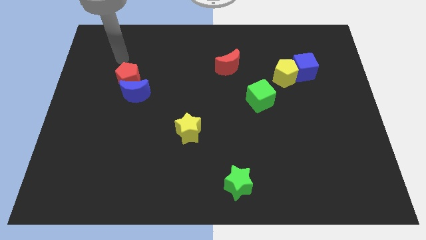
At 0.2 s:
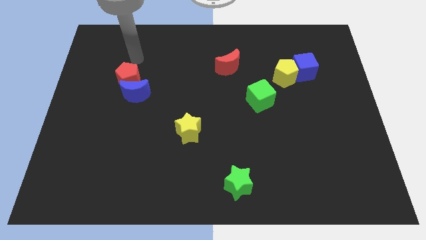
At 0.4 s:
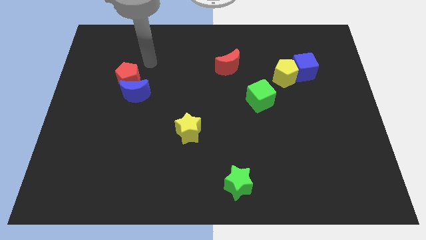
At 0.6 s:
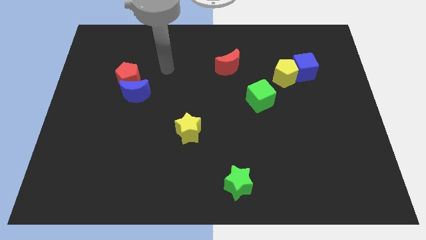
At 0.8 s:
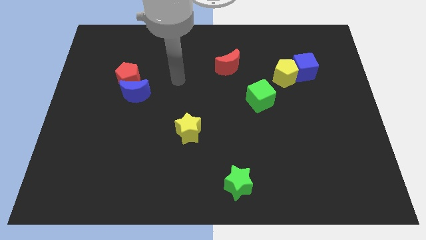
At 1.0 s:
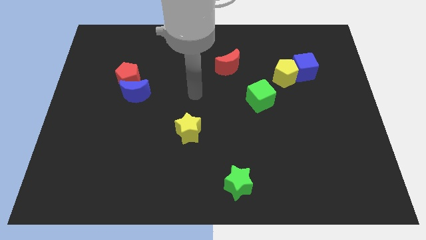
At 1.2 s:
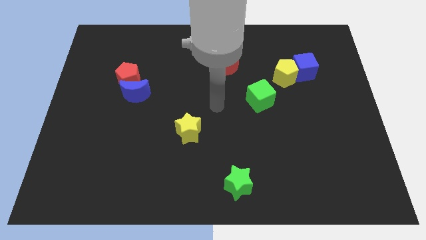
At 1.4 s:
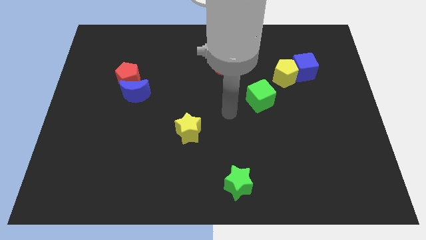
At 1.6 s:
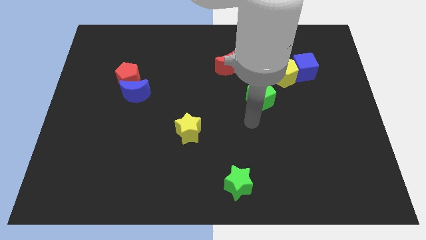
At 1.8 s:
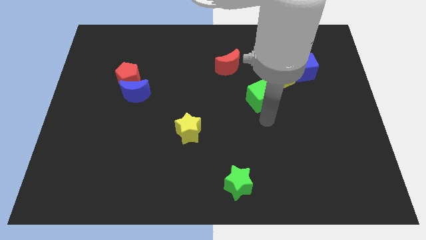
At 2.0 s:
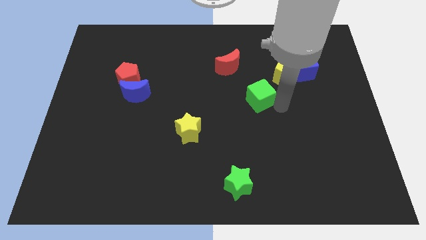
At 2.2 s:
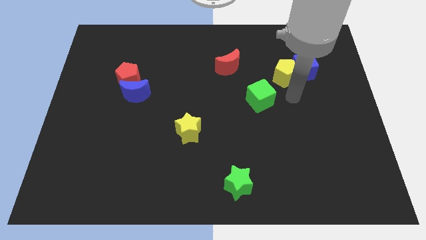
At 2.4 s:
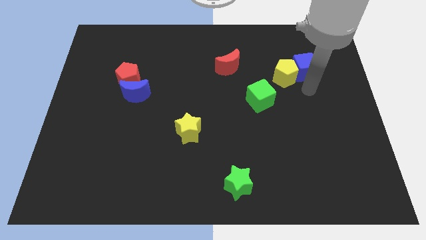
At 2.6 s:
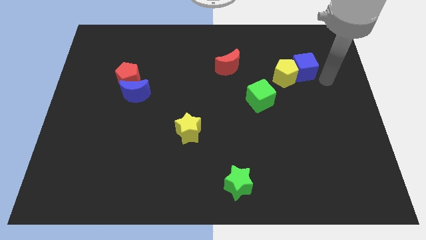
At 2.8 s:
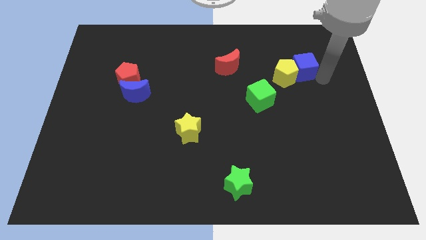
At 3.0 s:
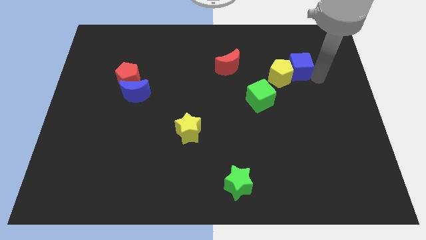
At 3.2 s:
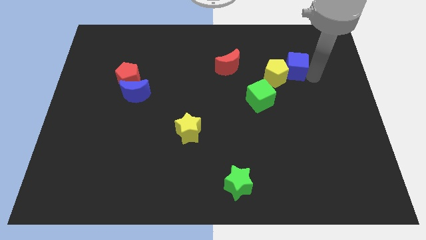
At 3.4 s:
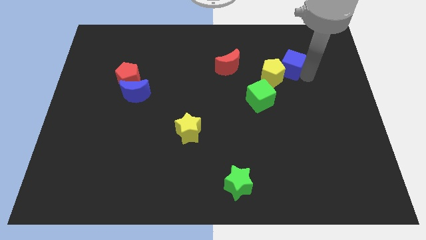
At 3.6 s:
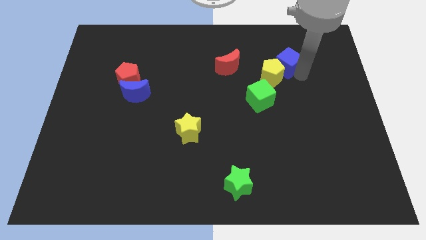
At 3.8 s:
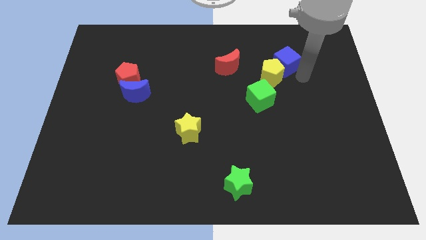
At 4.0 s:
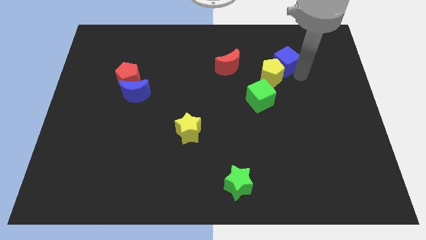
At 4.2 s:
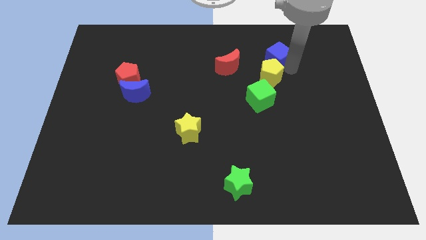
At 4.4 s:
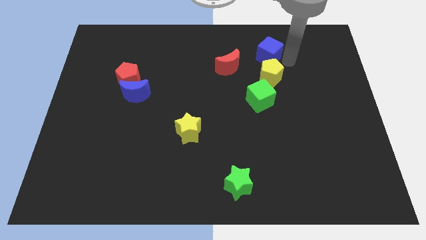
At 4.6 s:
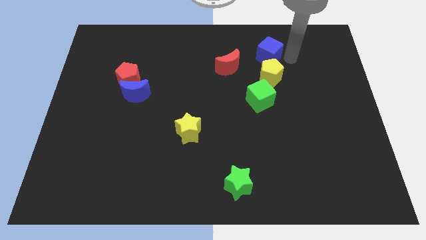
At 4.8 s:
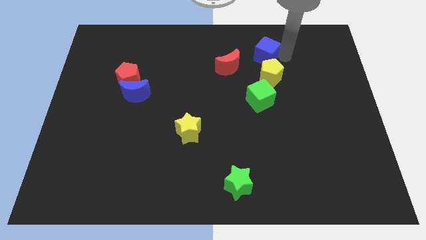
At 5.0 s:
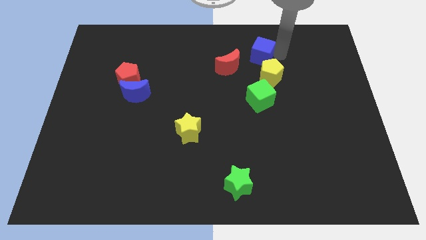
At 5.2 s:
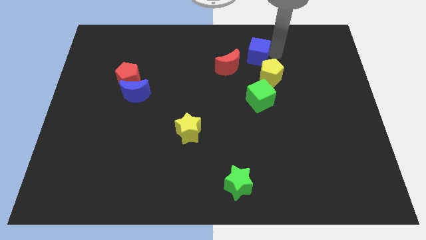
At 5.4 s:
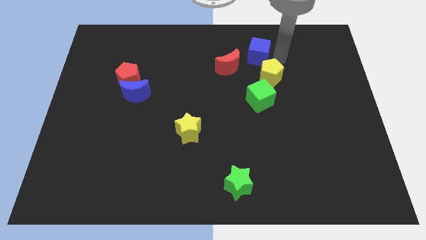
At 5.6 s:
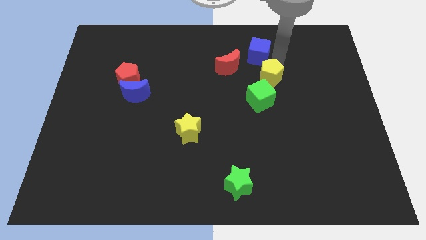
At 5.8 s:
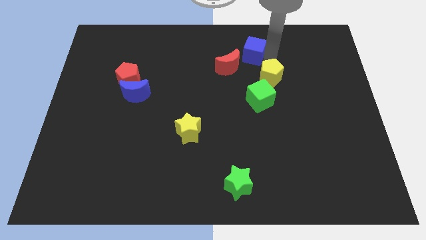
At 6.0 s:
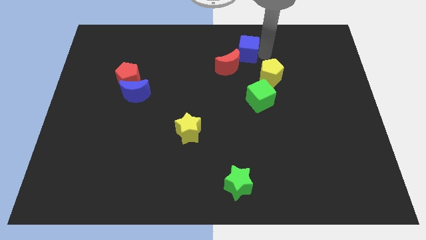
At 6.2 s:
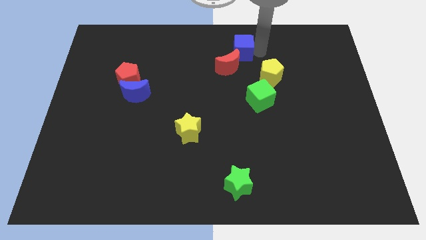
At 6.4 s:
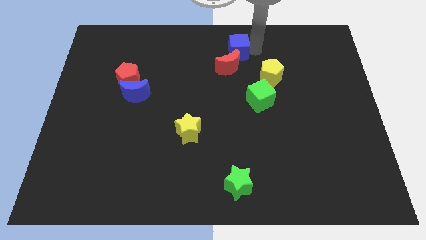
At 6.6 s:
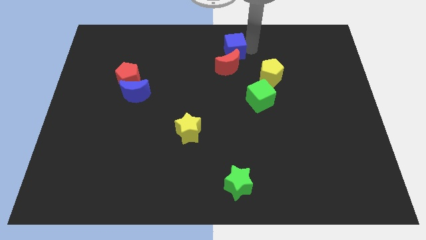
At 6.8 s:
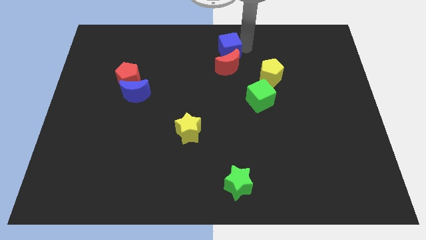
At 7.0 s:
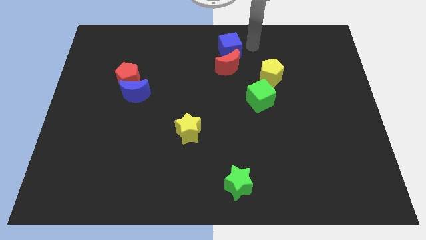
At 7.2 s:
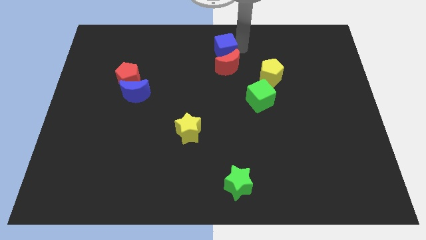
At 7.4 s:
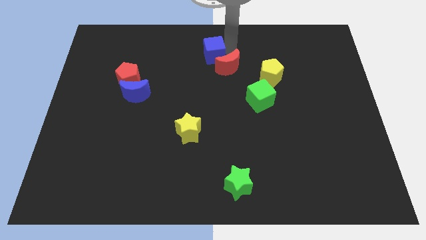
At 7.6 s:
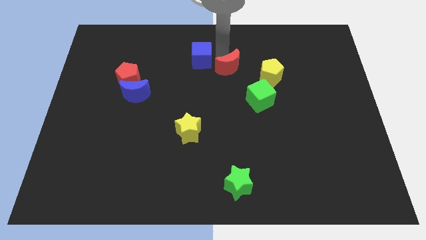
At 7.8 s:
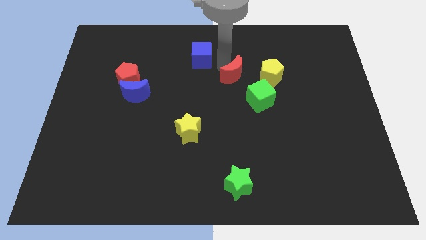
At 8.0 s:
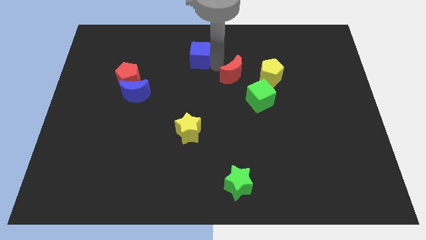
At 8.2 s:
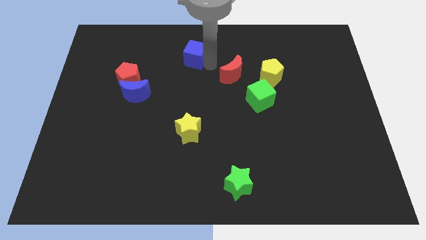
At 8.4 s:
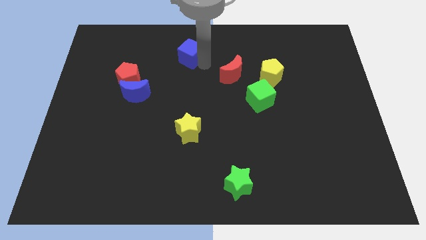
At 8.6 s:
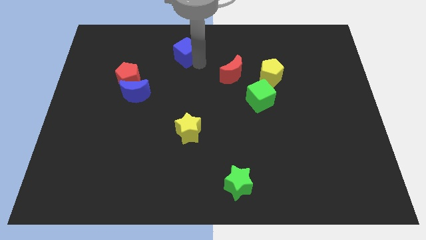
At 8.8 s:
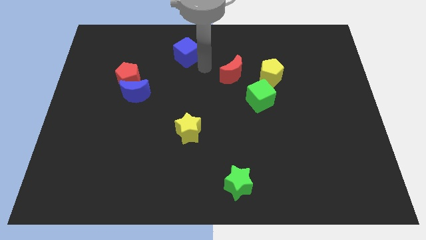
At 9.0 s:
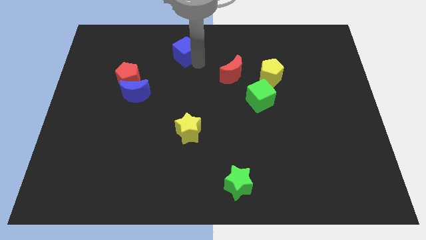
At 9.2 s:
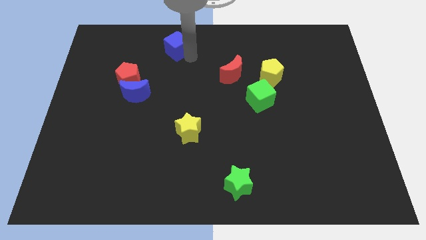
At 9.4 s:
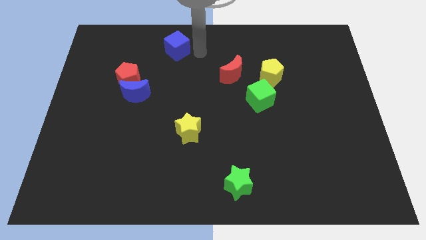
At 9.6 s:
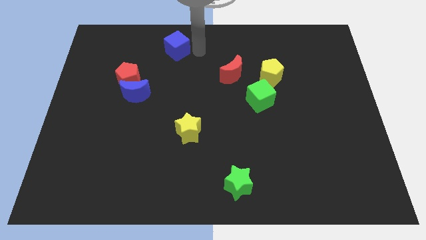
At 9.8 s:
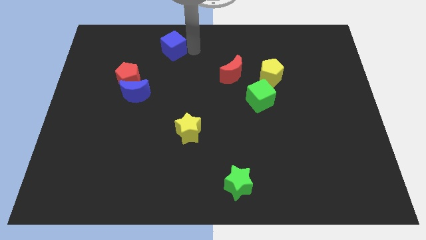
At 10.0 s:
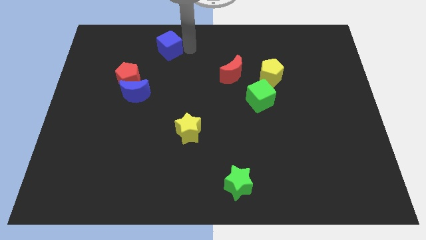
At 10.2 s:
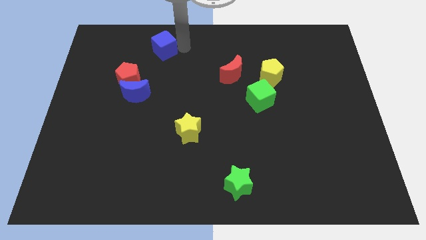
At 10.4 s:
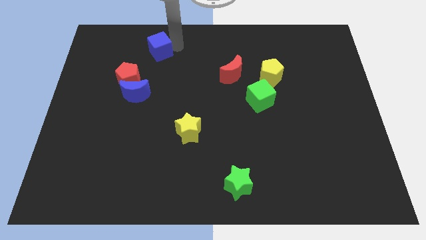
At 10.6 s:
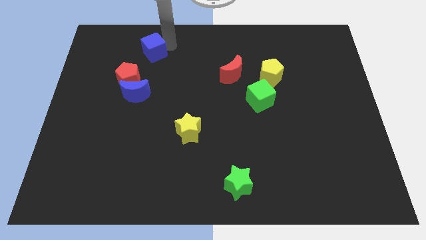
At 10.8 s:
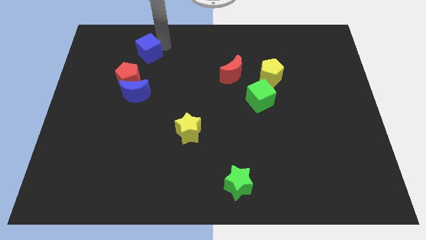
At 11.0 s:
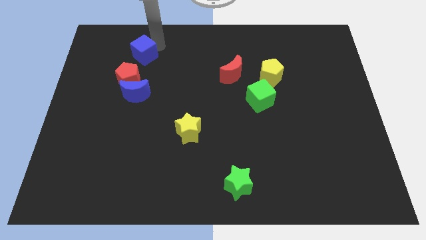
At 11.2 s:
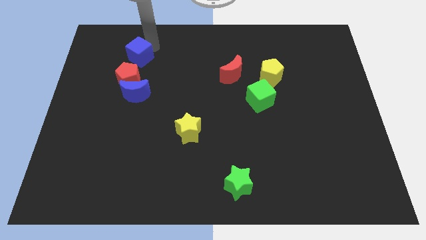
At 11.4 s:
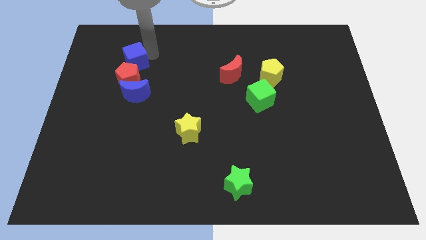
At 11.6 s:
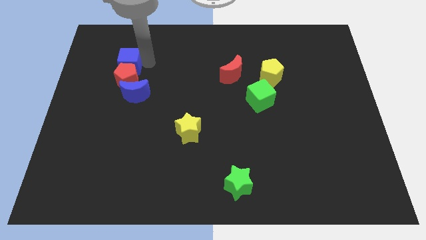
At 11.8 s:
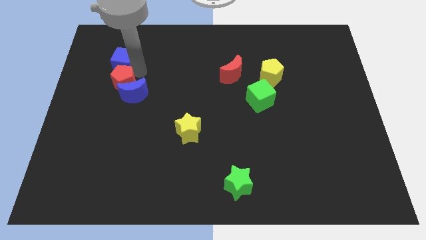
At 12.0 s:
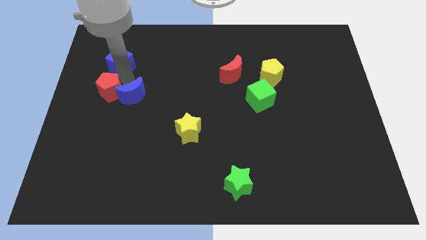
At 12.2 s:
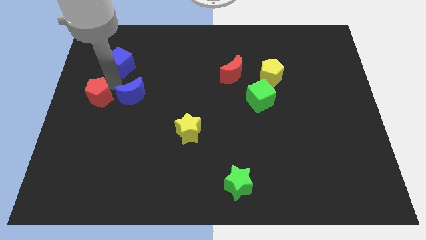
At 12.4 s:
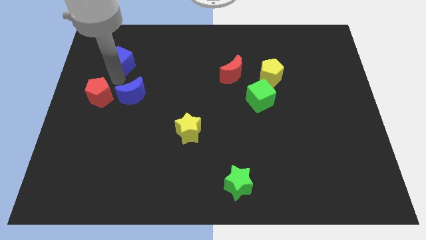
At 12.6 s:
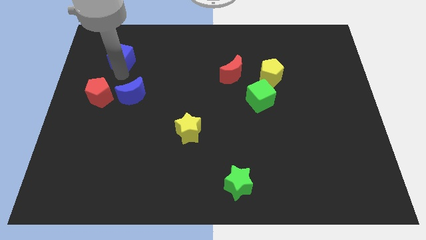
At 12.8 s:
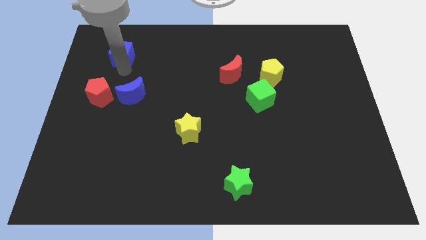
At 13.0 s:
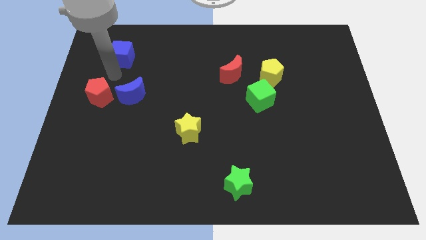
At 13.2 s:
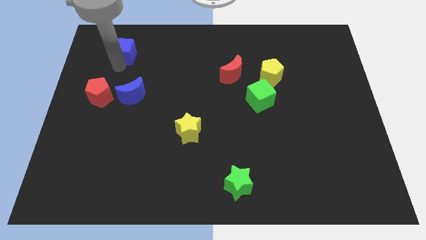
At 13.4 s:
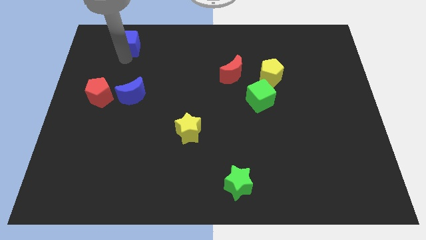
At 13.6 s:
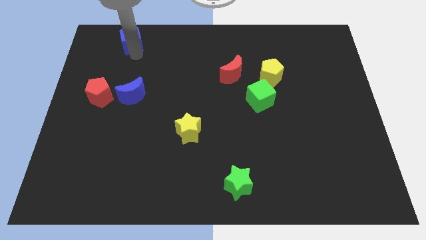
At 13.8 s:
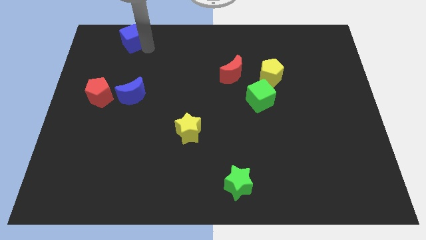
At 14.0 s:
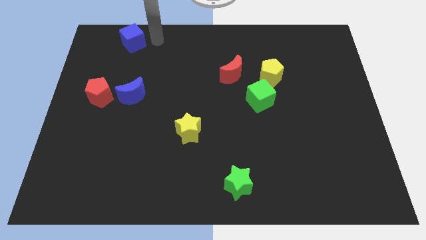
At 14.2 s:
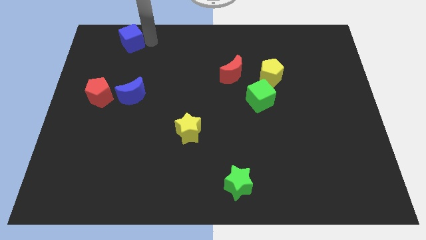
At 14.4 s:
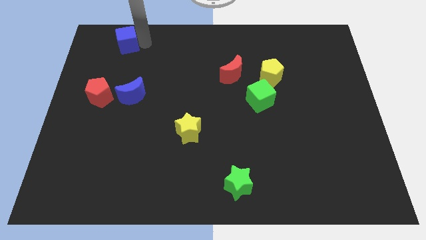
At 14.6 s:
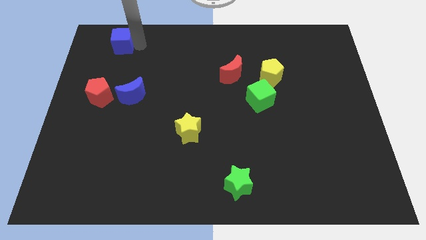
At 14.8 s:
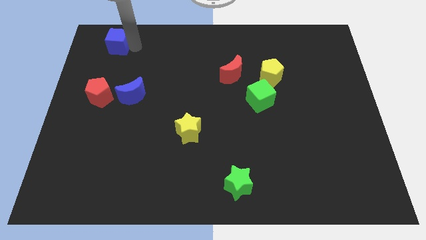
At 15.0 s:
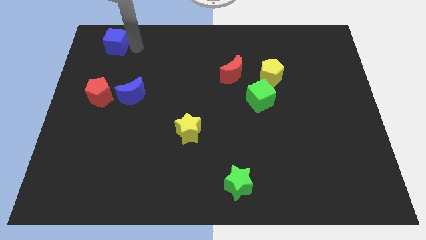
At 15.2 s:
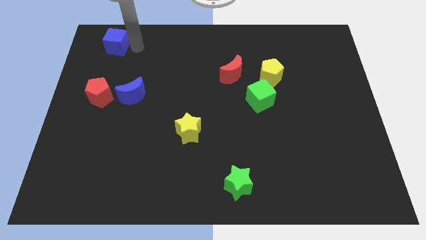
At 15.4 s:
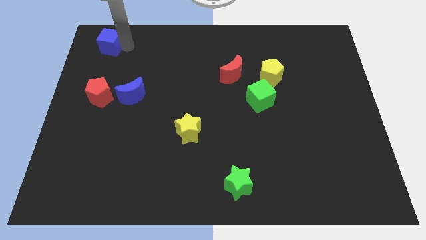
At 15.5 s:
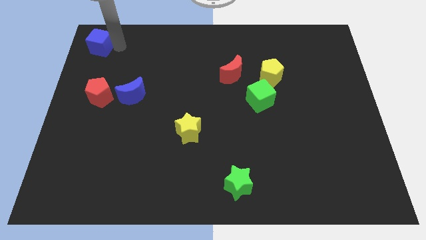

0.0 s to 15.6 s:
push the blue cube to the top left
